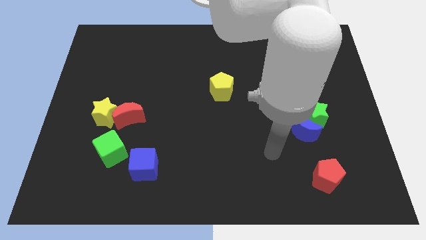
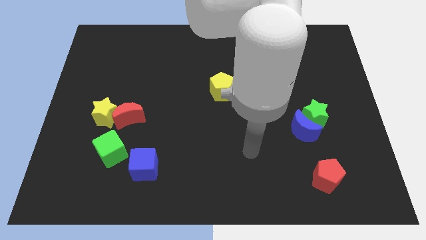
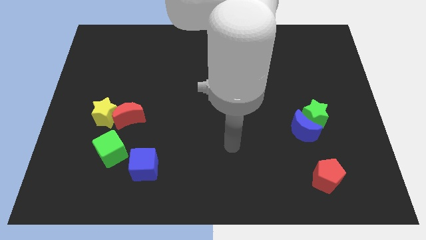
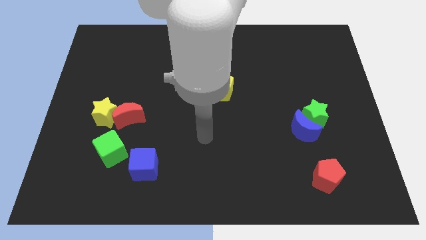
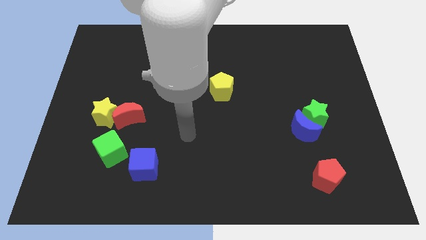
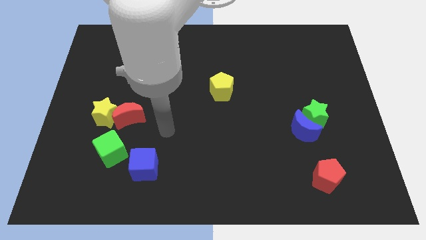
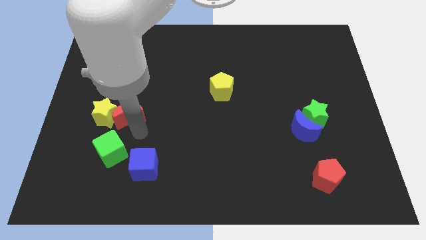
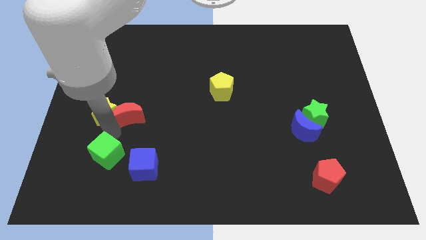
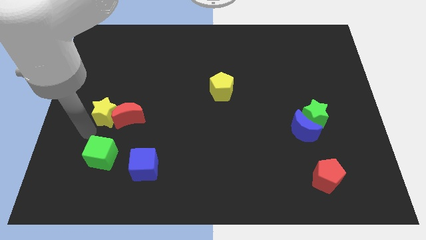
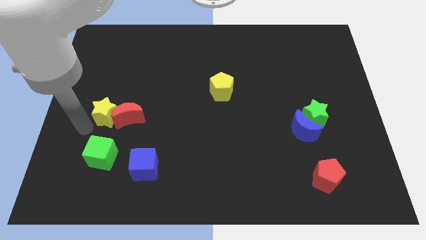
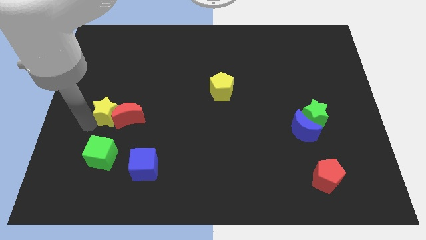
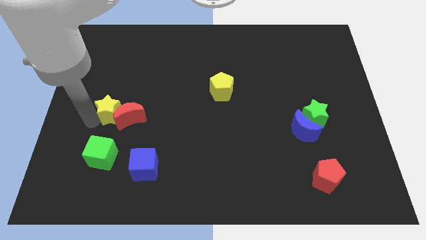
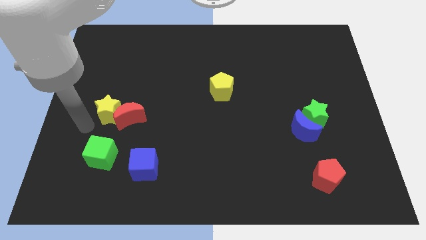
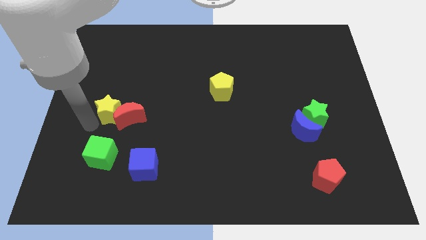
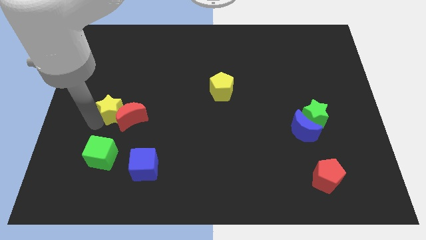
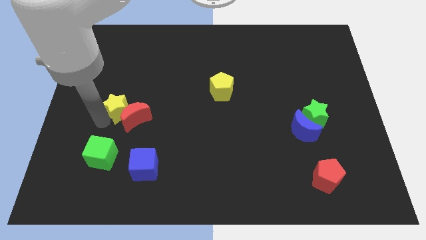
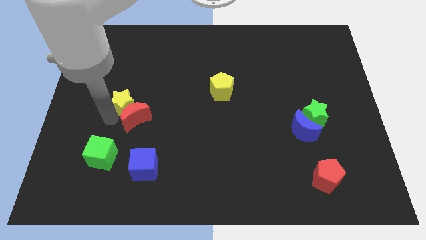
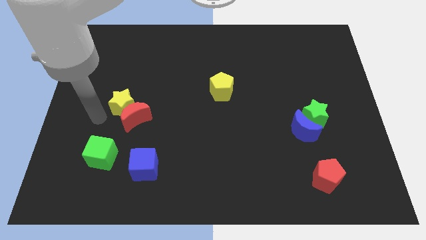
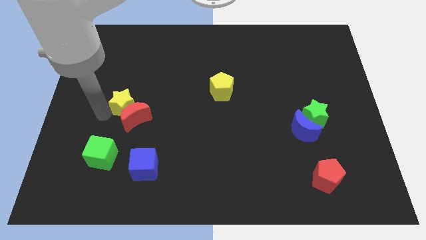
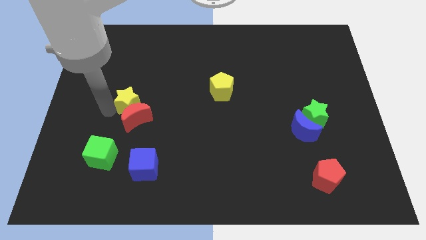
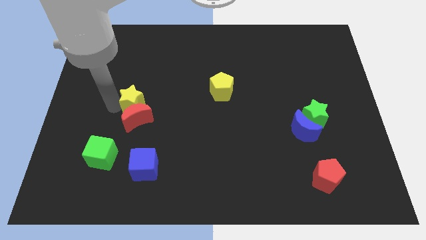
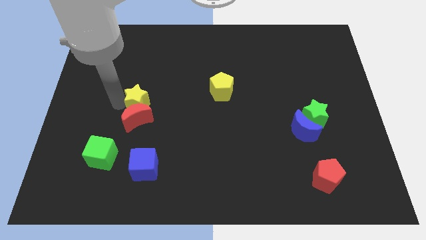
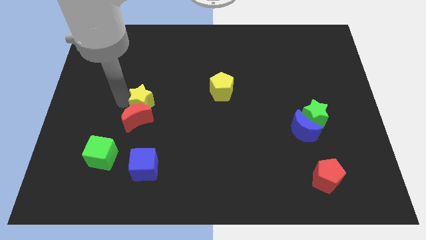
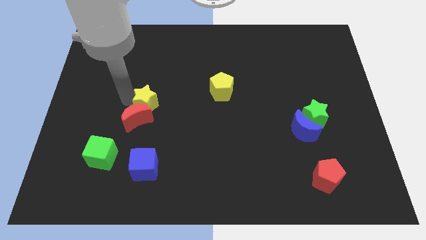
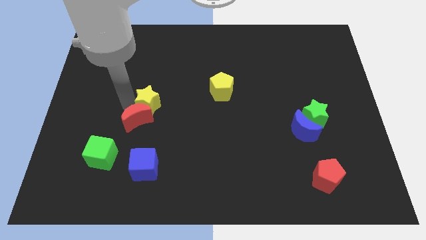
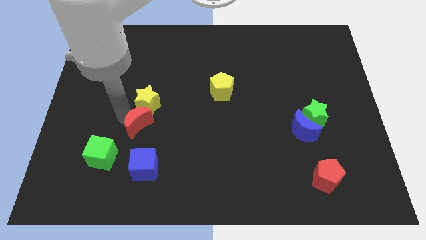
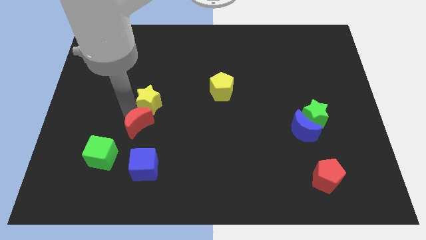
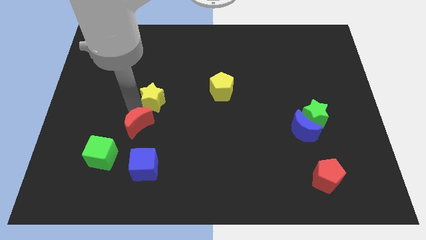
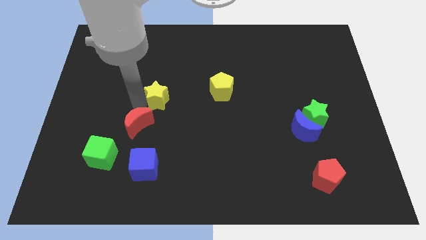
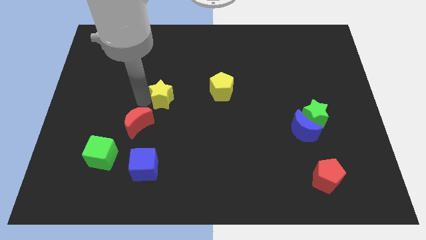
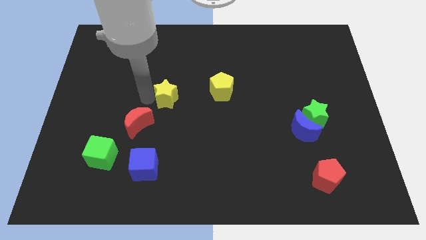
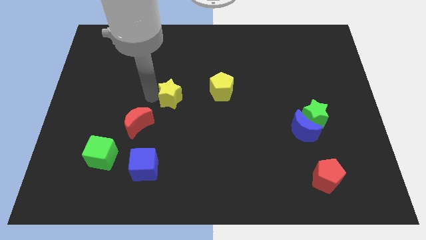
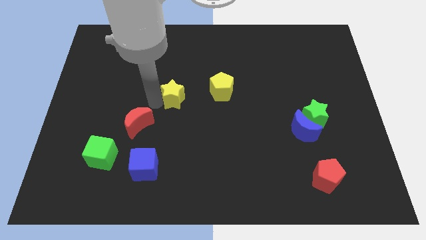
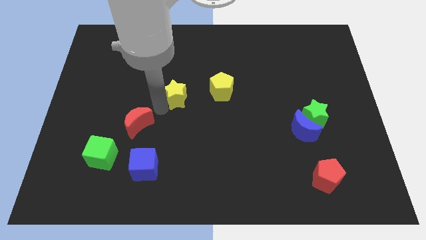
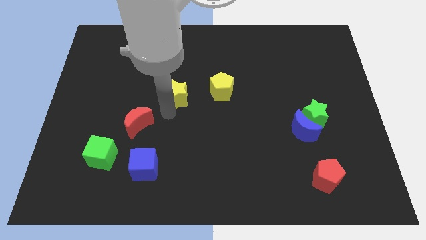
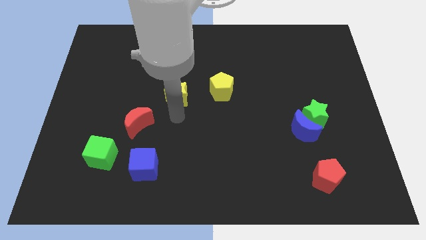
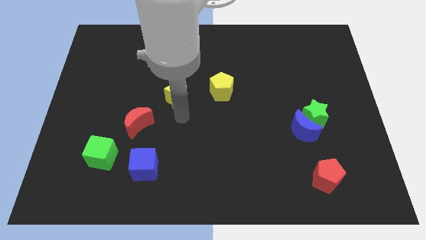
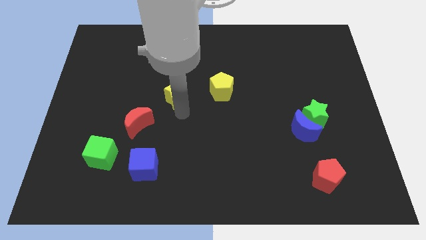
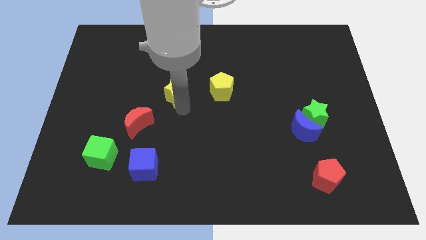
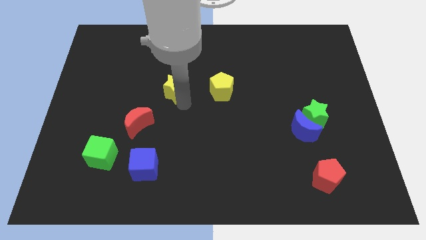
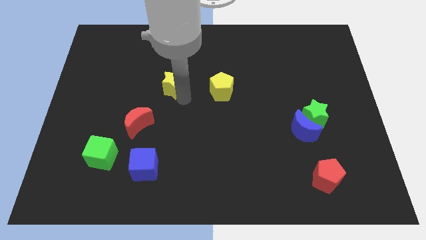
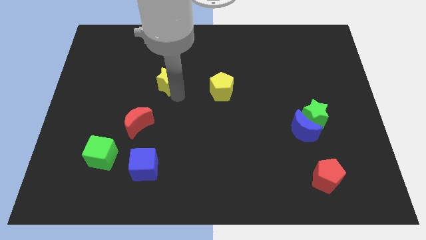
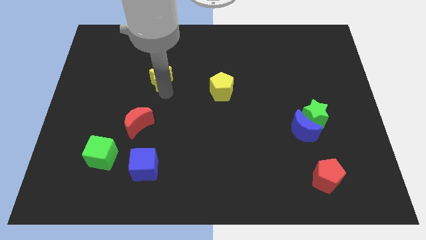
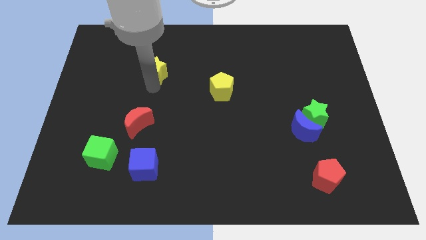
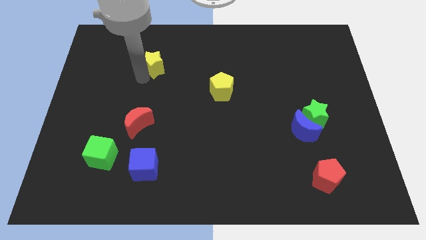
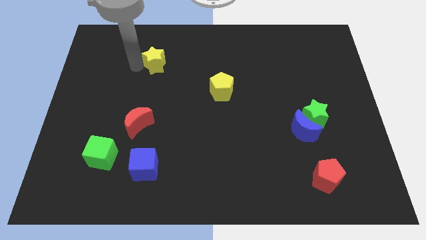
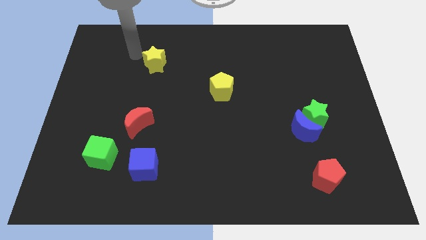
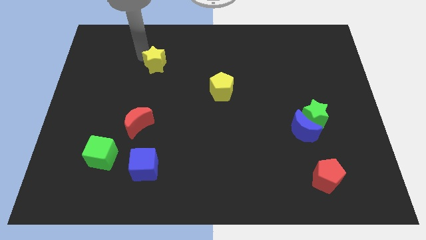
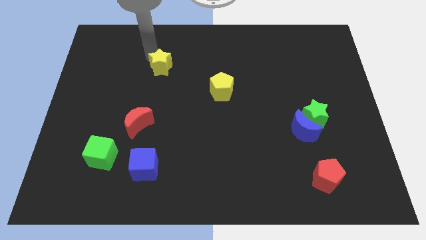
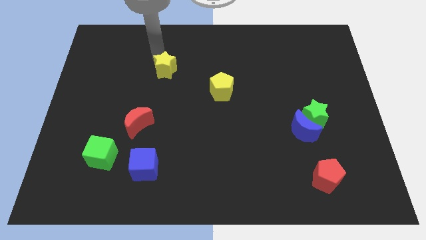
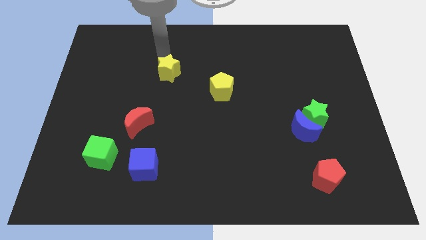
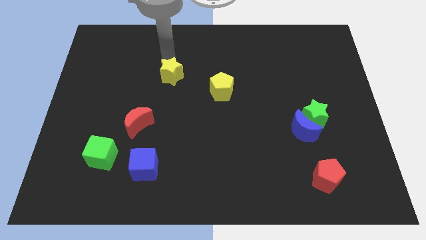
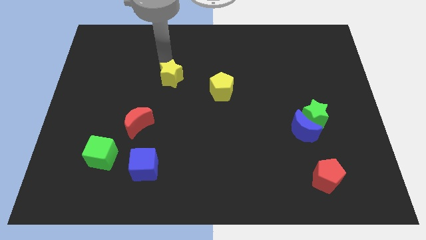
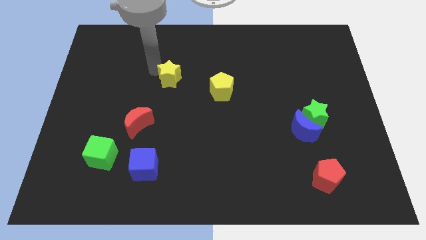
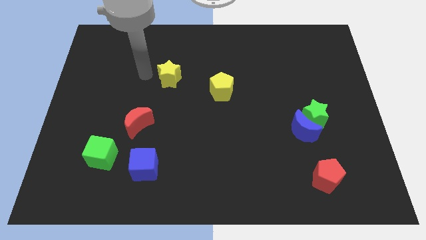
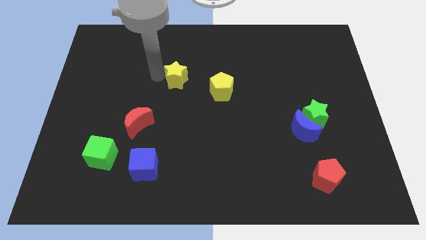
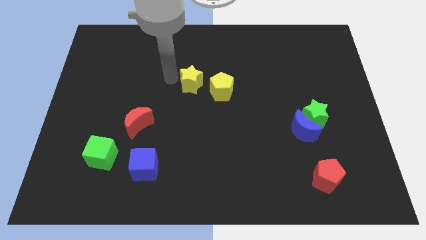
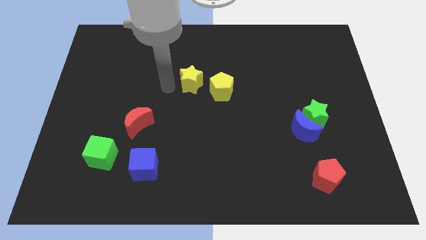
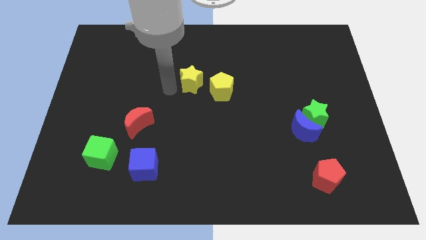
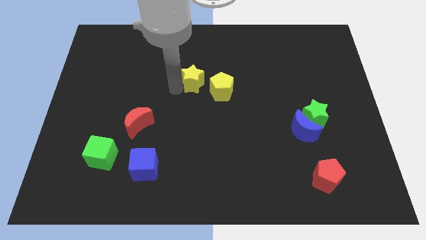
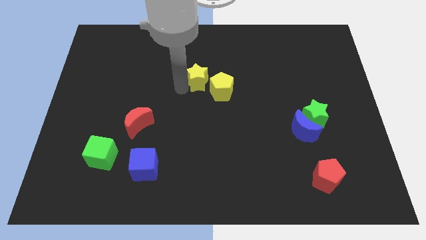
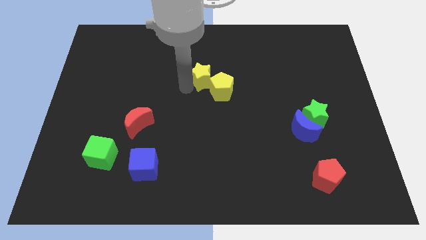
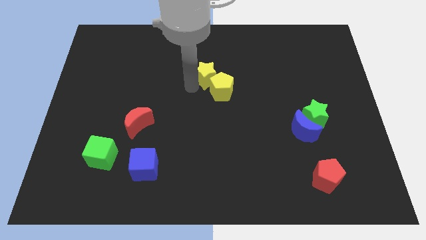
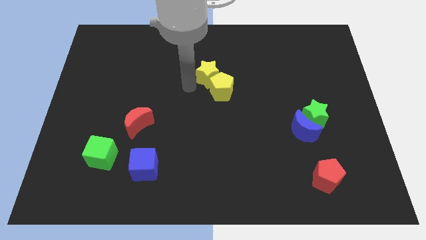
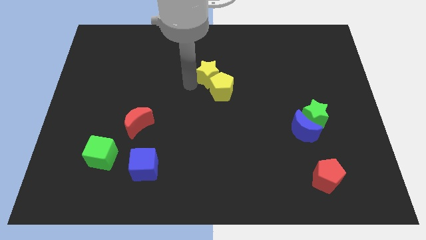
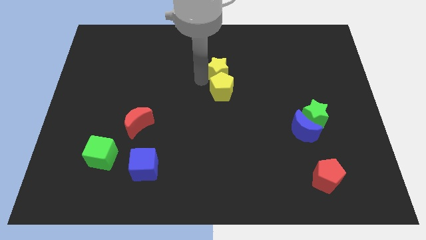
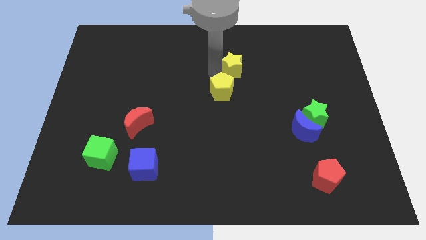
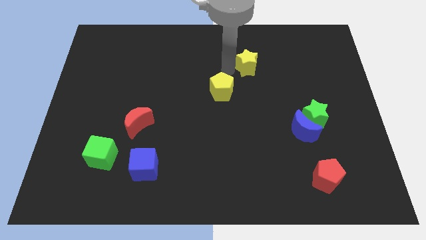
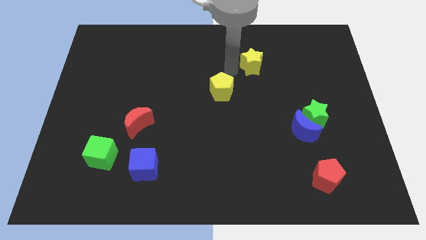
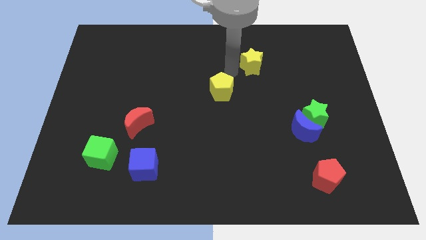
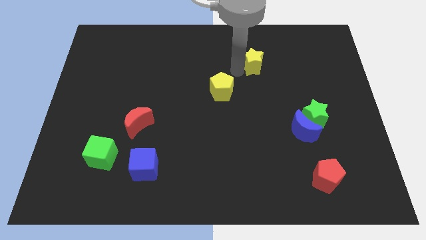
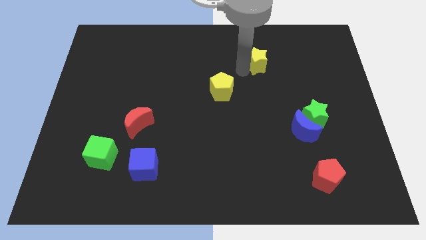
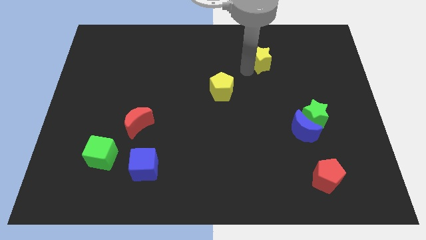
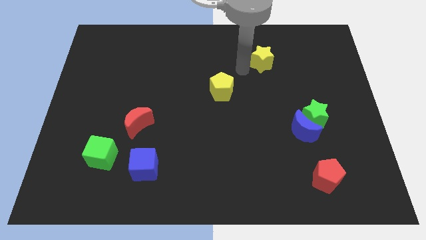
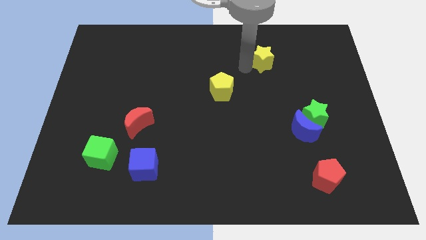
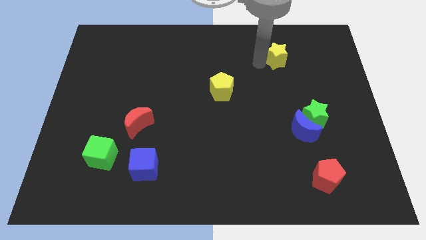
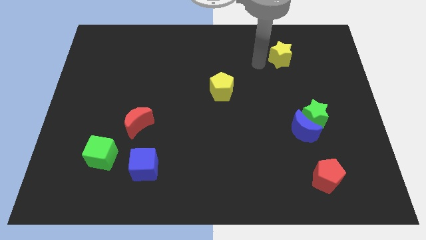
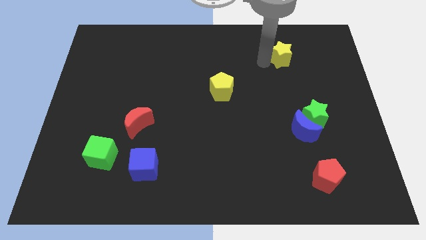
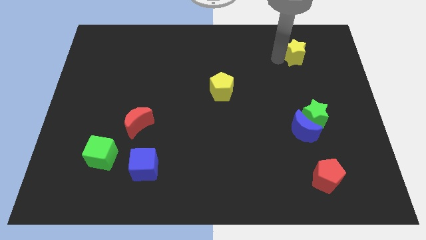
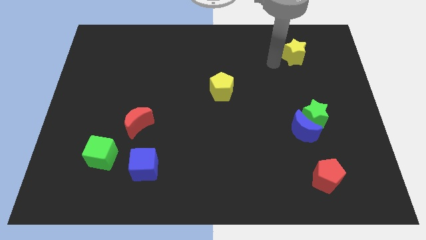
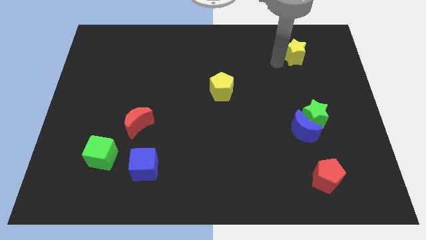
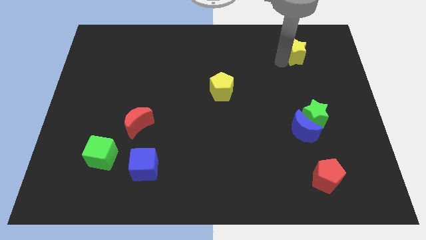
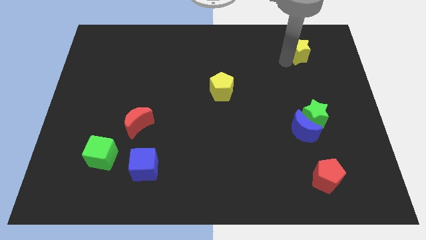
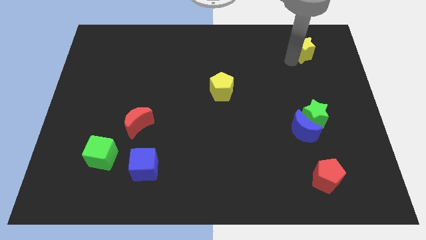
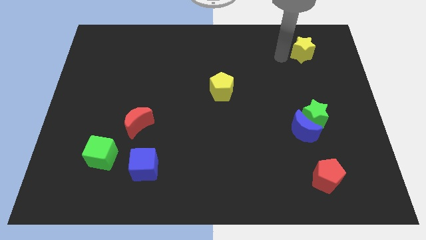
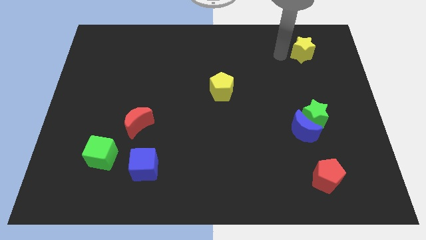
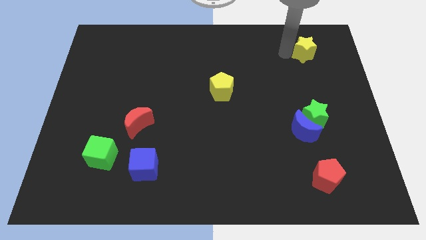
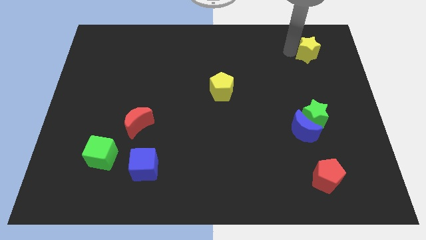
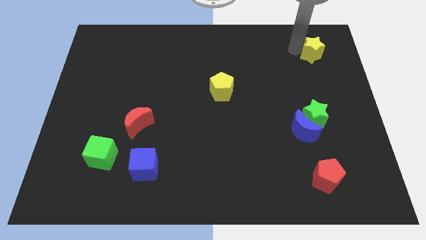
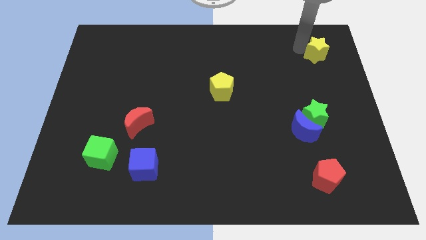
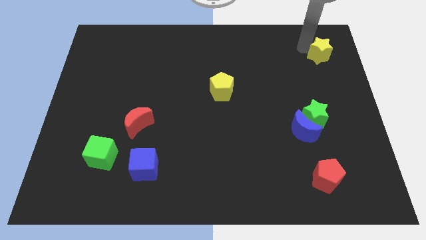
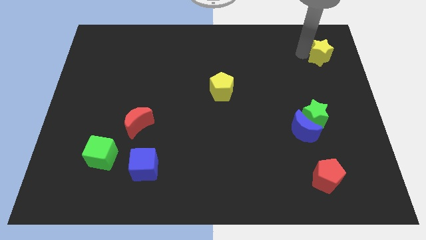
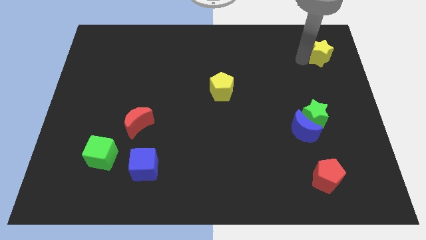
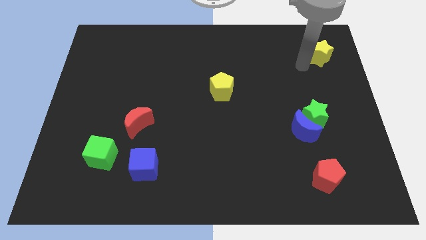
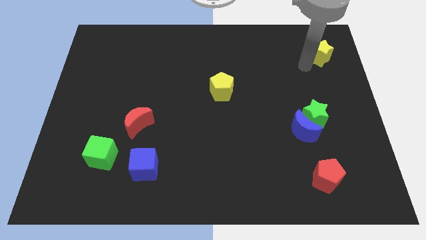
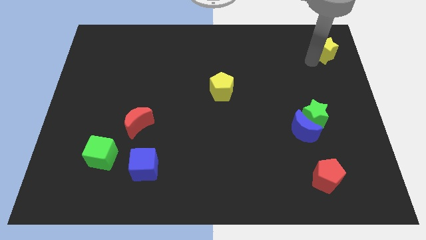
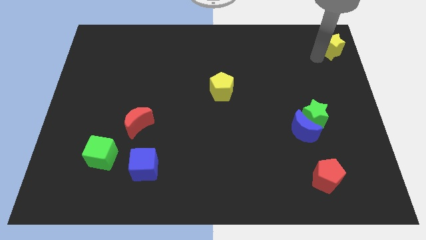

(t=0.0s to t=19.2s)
put the yellow star to the upper right corner
